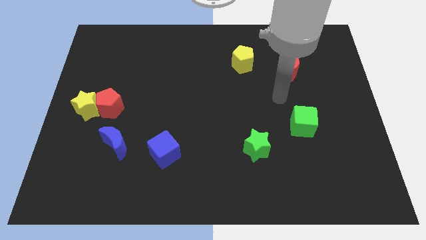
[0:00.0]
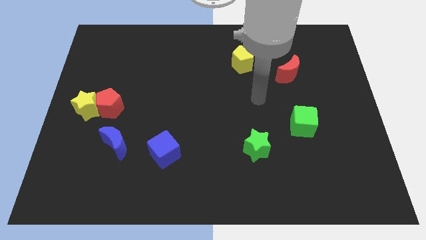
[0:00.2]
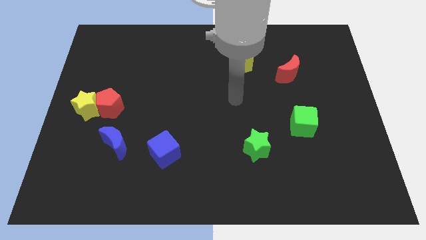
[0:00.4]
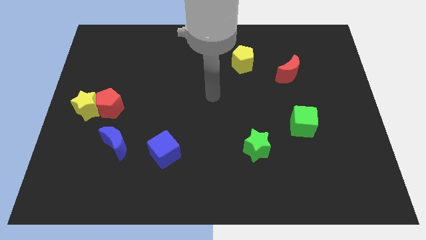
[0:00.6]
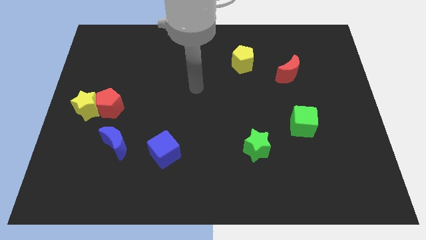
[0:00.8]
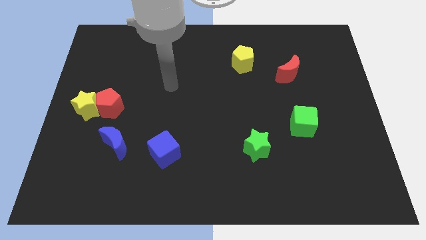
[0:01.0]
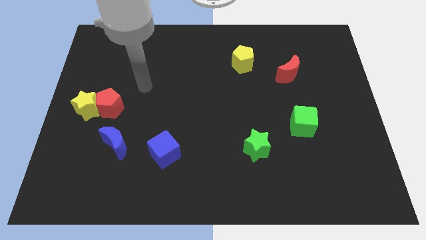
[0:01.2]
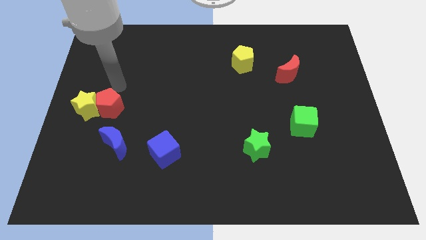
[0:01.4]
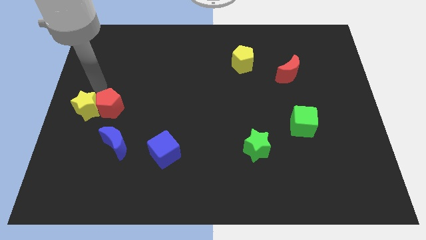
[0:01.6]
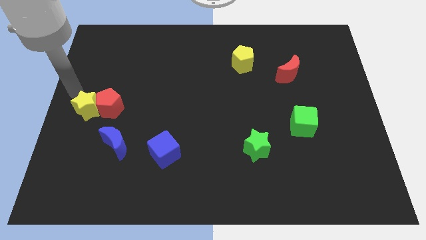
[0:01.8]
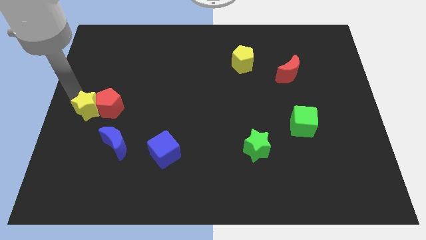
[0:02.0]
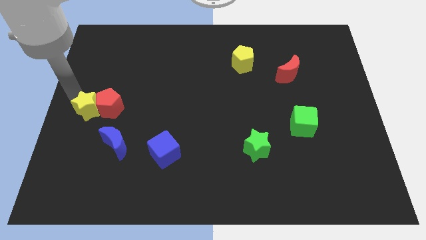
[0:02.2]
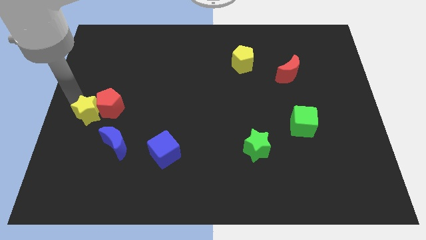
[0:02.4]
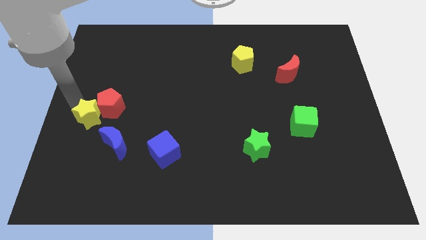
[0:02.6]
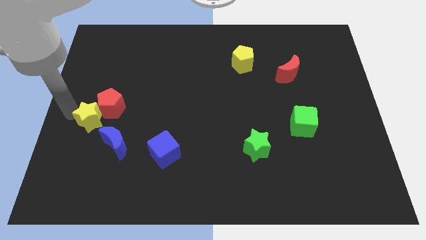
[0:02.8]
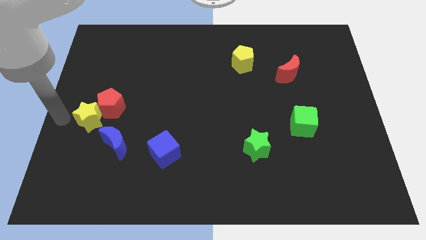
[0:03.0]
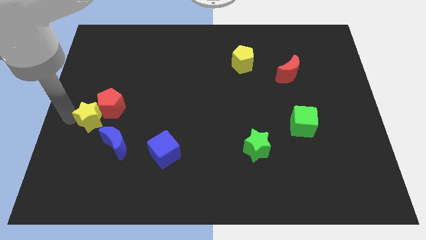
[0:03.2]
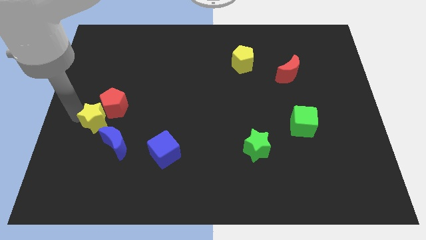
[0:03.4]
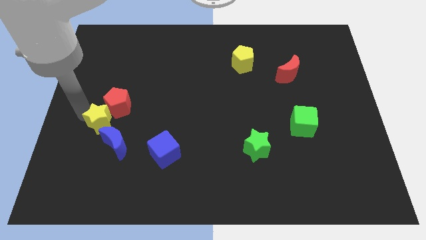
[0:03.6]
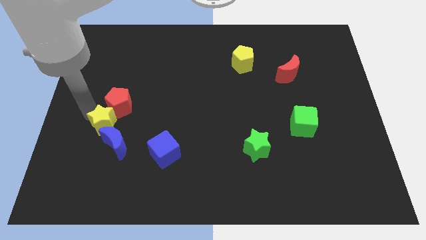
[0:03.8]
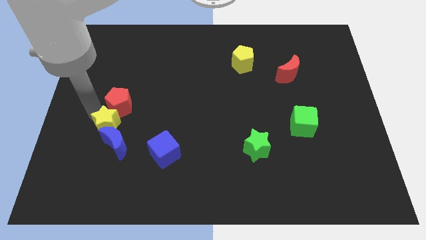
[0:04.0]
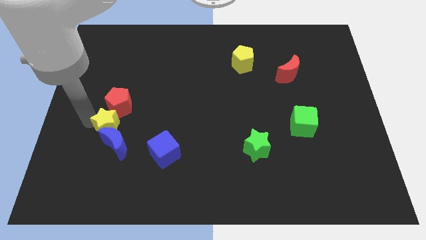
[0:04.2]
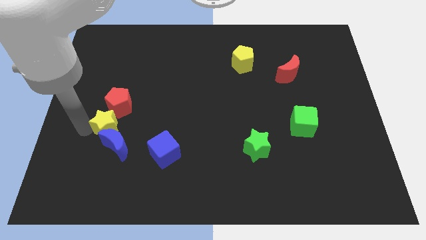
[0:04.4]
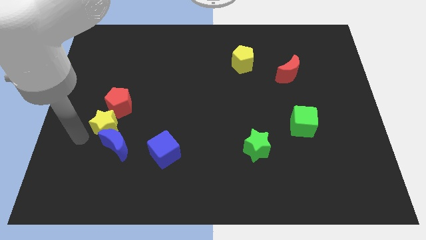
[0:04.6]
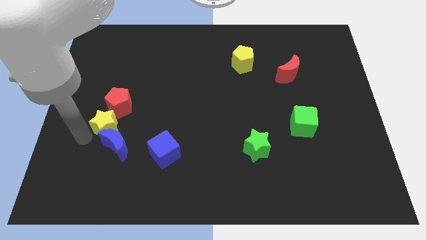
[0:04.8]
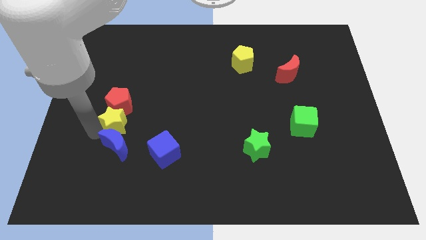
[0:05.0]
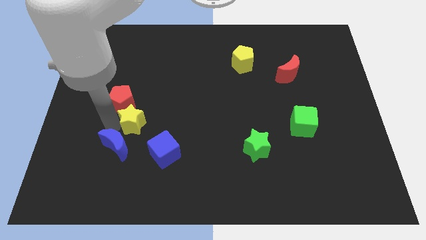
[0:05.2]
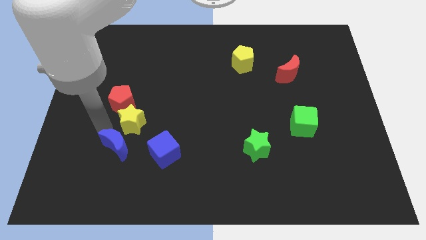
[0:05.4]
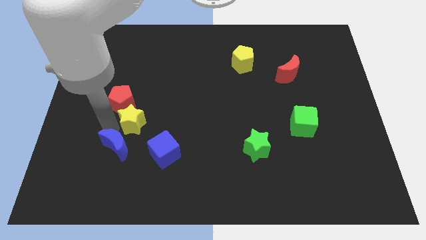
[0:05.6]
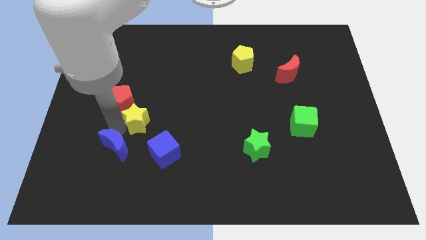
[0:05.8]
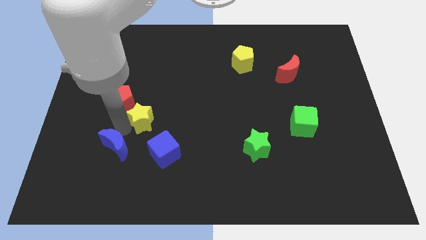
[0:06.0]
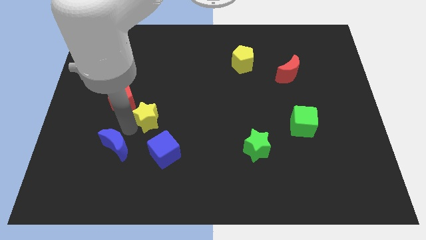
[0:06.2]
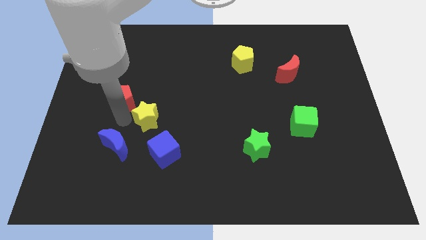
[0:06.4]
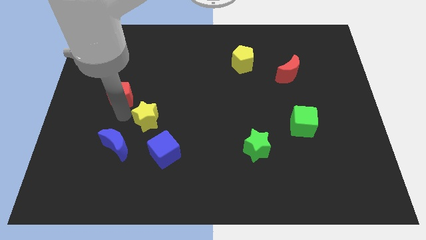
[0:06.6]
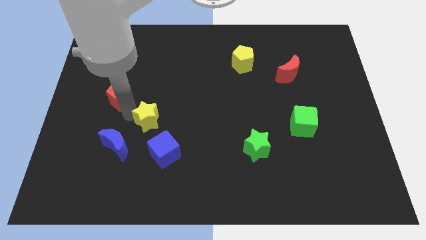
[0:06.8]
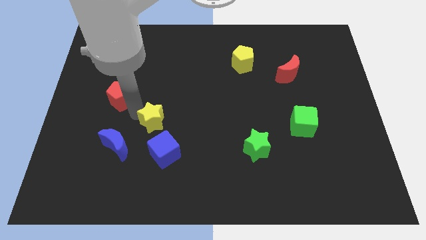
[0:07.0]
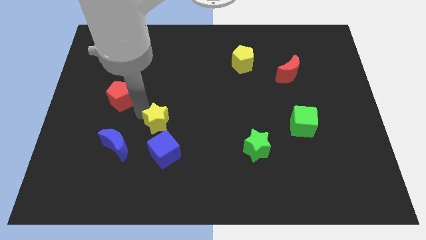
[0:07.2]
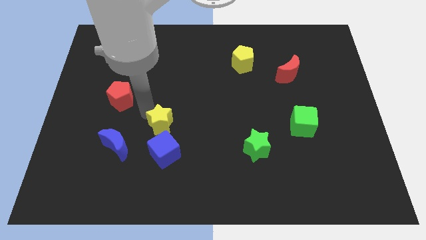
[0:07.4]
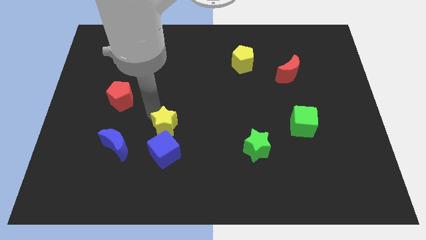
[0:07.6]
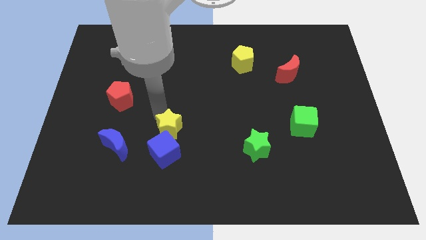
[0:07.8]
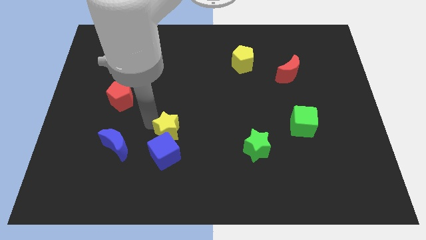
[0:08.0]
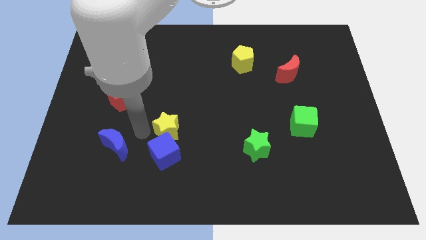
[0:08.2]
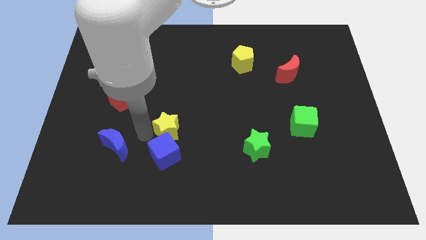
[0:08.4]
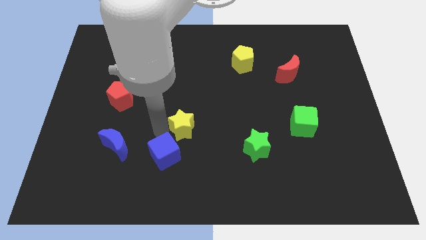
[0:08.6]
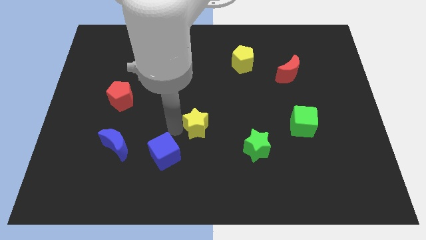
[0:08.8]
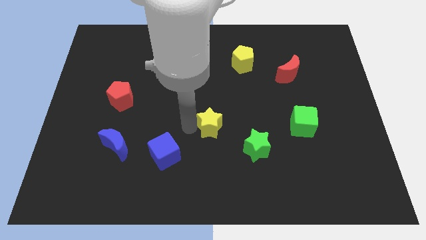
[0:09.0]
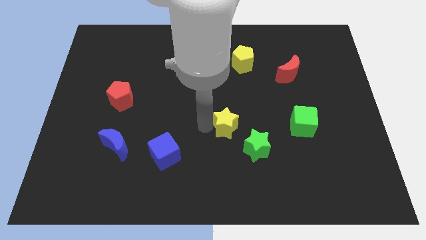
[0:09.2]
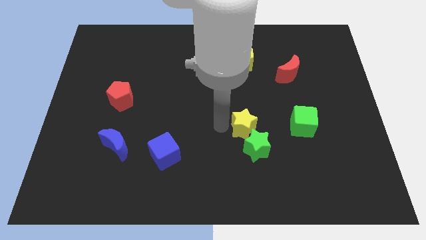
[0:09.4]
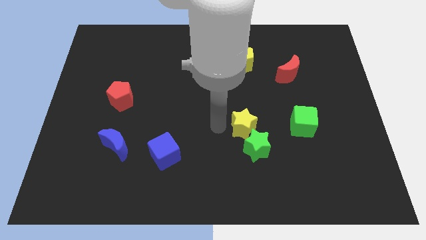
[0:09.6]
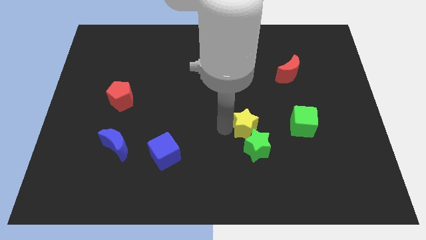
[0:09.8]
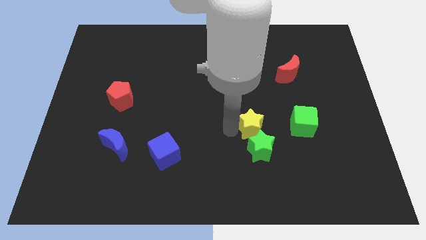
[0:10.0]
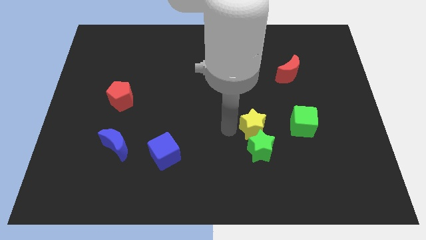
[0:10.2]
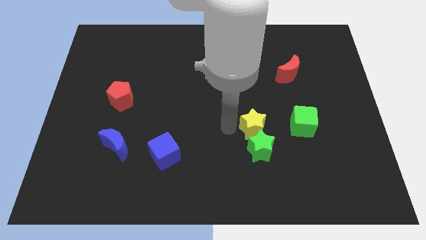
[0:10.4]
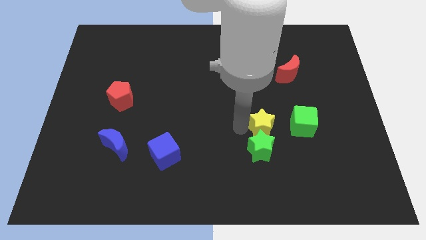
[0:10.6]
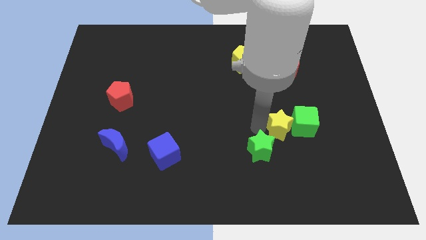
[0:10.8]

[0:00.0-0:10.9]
put the yellow star towards the green cube

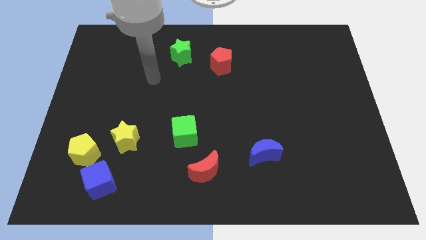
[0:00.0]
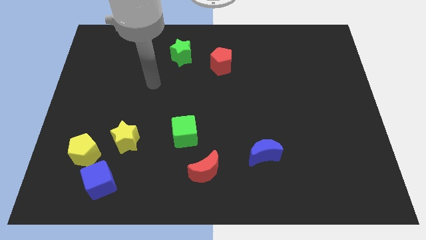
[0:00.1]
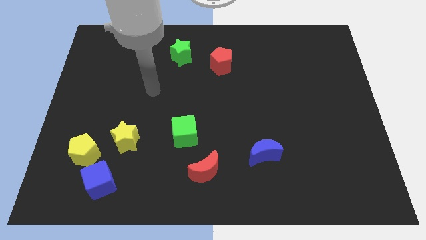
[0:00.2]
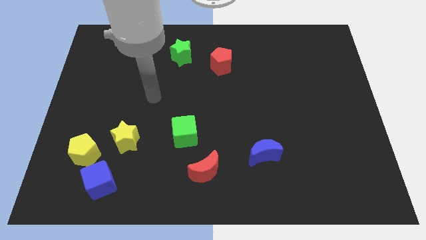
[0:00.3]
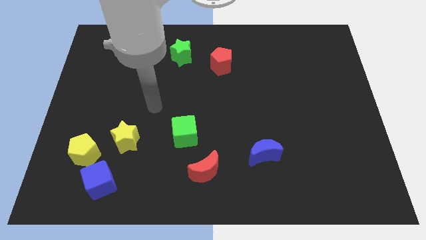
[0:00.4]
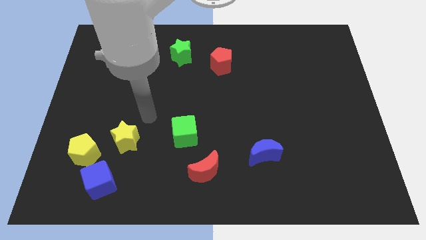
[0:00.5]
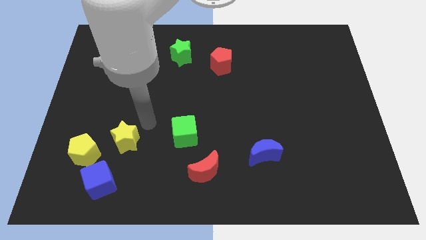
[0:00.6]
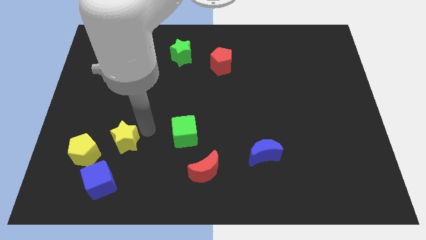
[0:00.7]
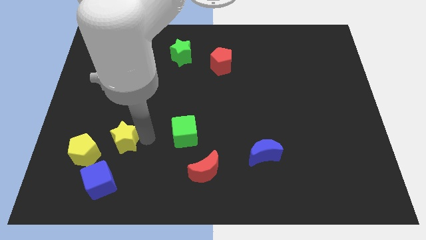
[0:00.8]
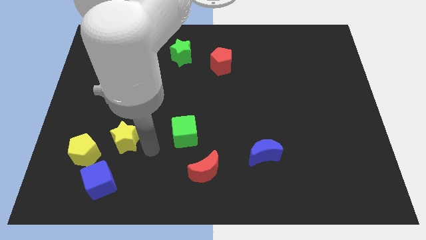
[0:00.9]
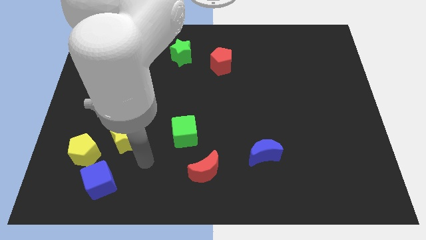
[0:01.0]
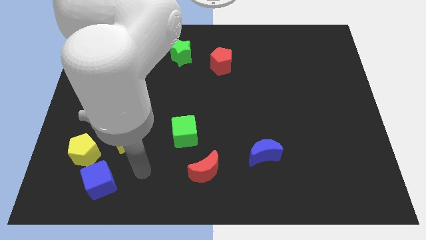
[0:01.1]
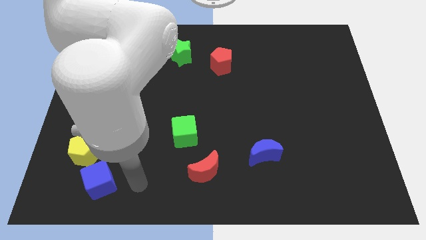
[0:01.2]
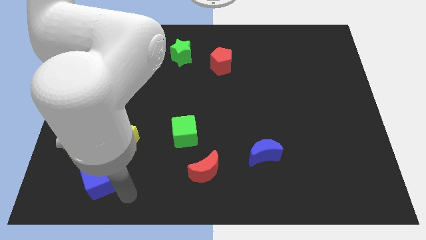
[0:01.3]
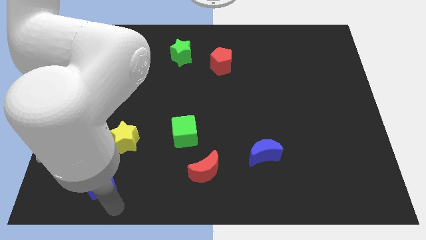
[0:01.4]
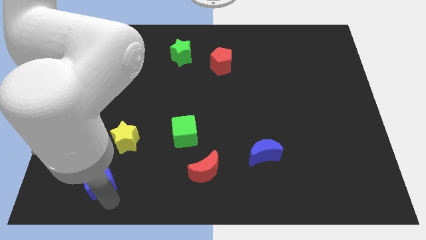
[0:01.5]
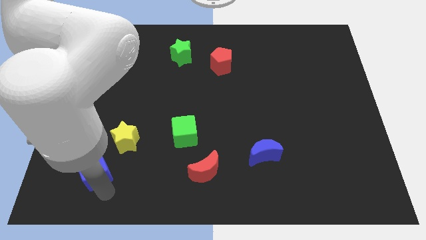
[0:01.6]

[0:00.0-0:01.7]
push the blue cube close to the yellow pentagon
